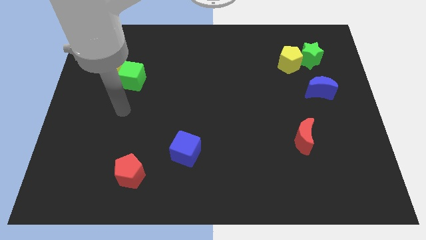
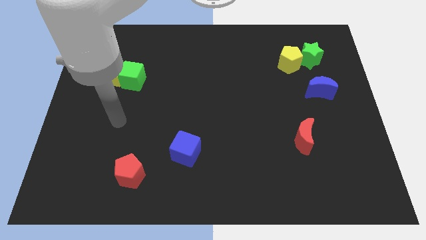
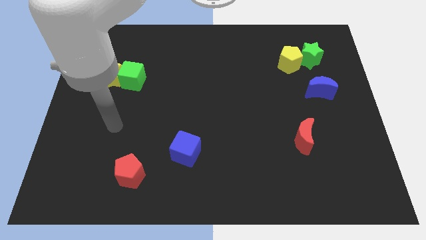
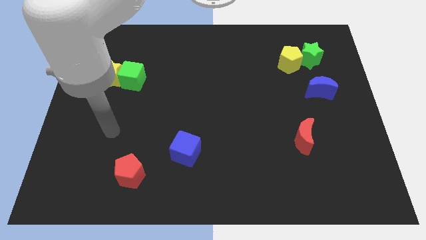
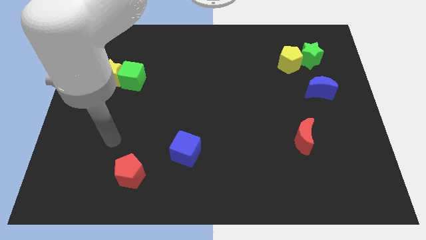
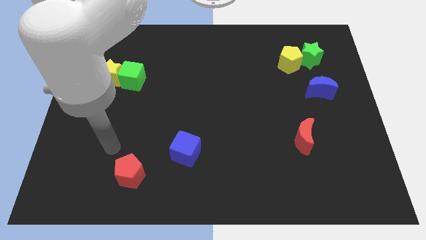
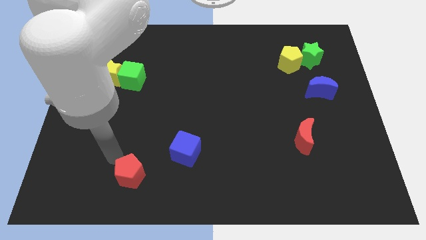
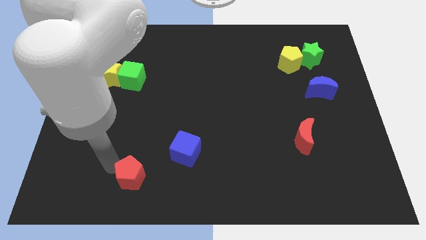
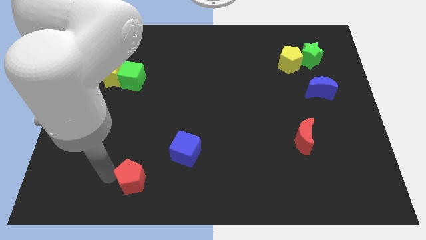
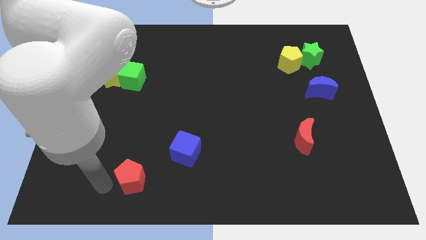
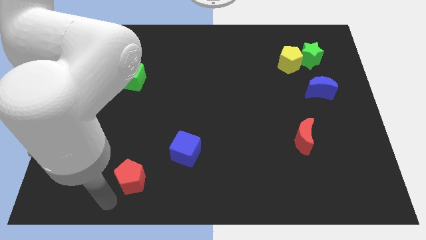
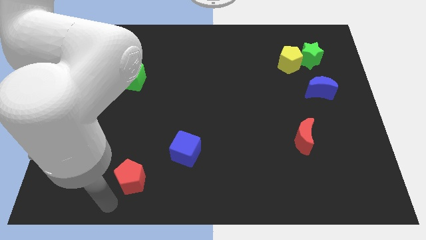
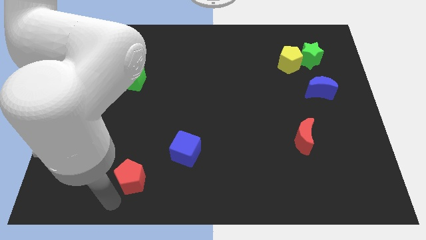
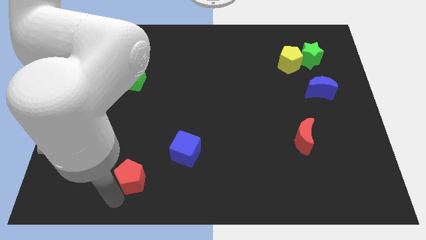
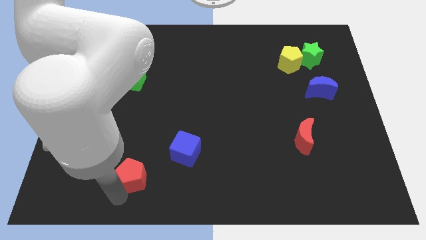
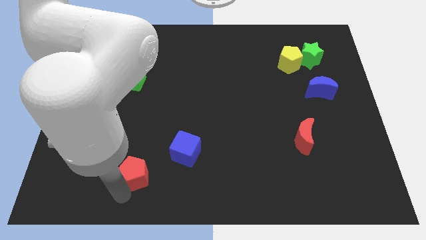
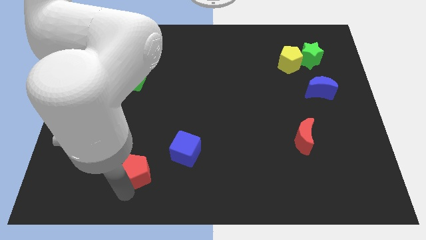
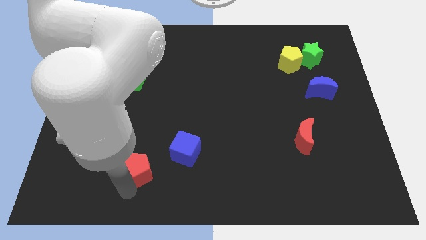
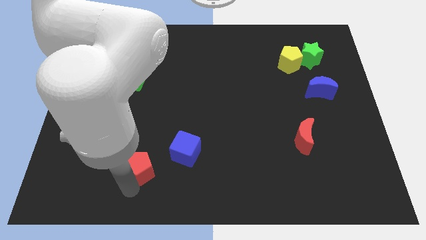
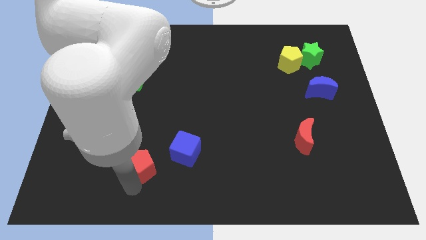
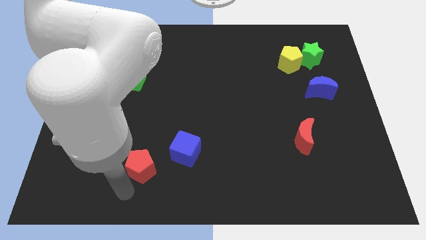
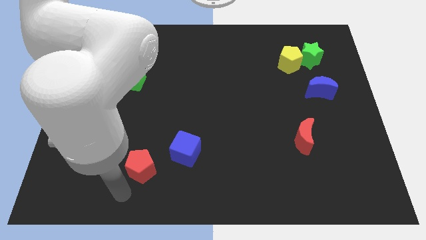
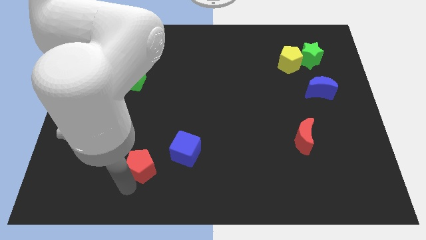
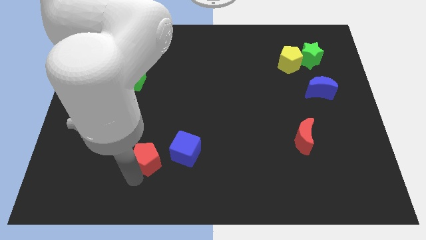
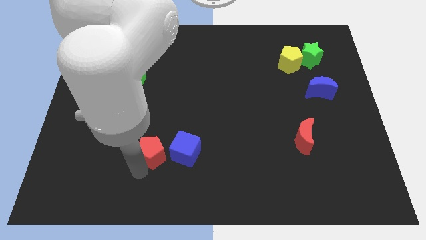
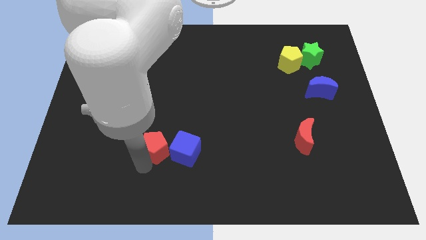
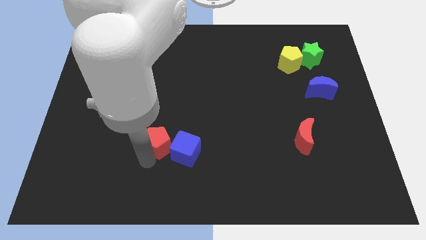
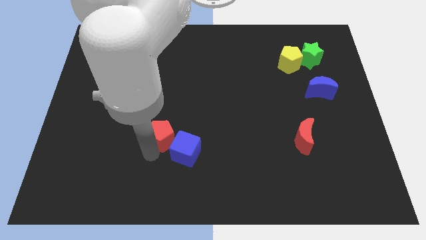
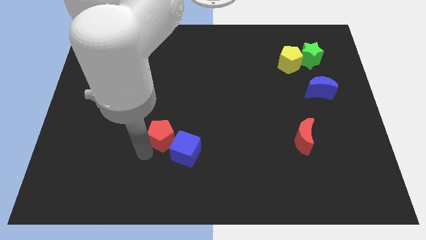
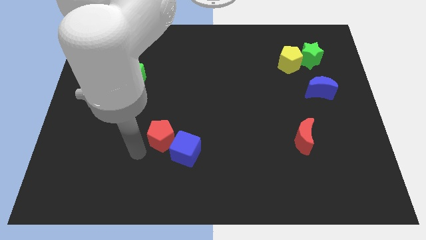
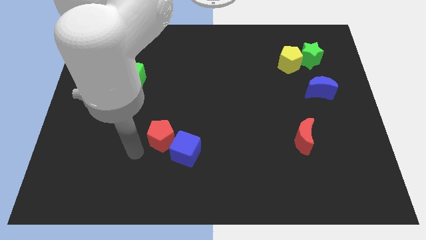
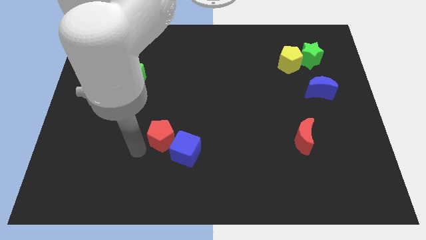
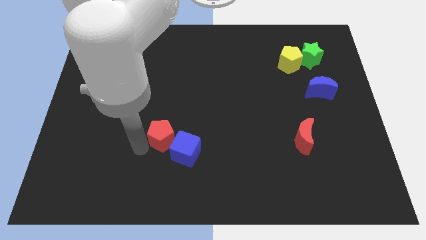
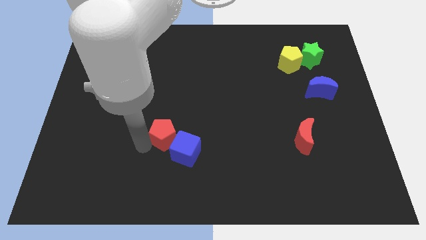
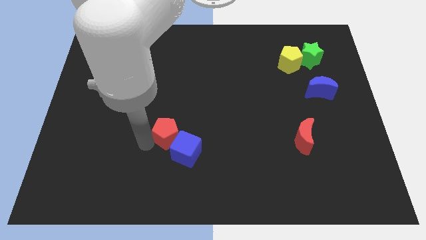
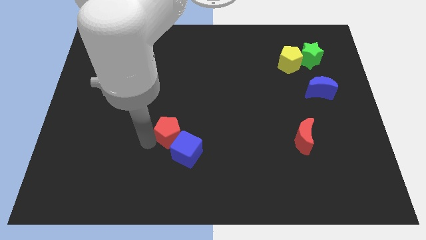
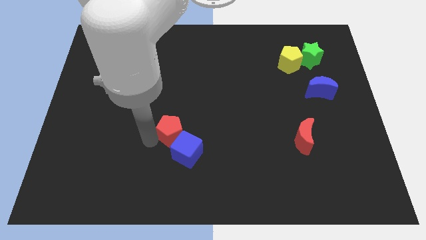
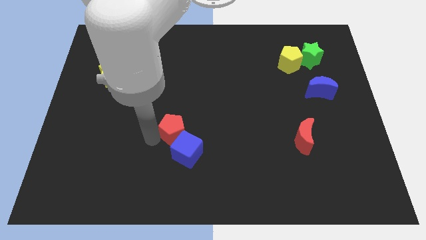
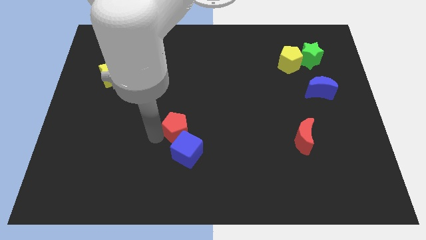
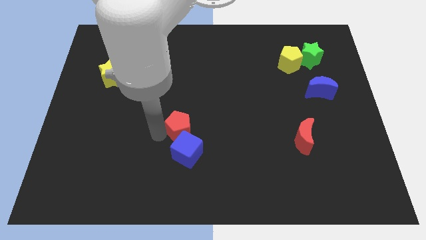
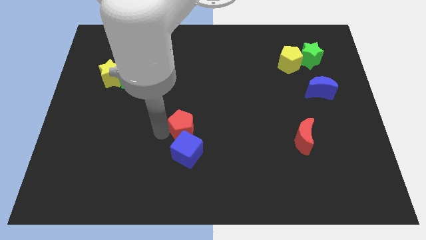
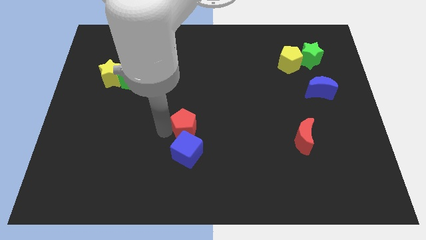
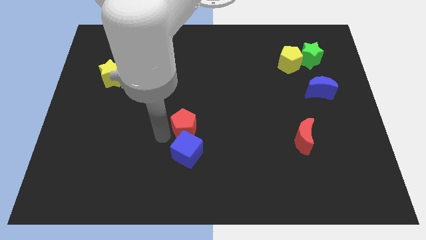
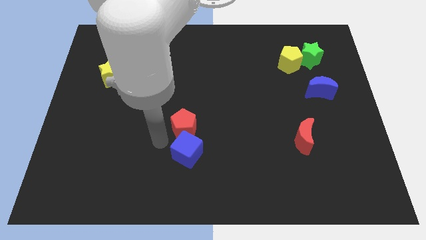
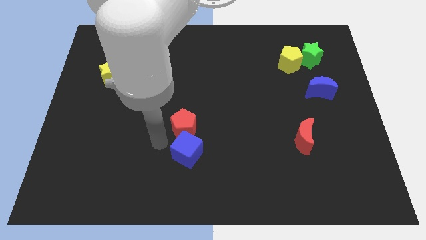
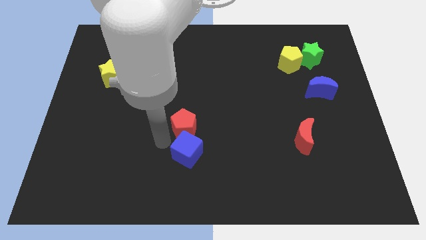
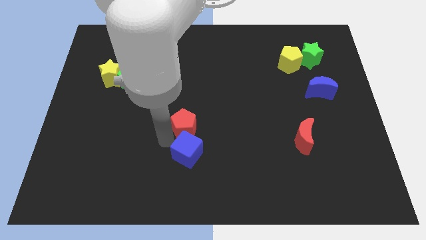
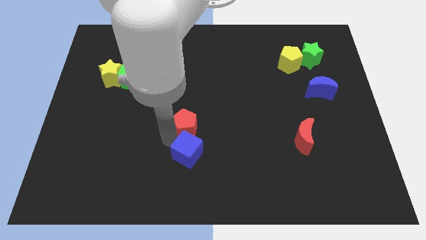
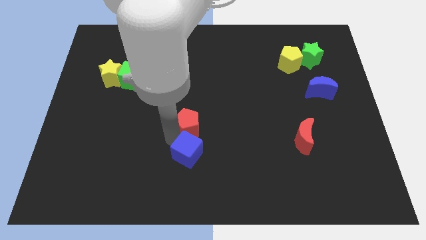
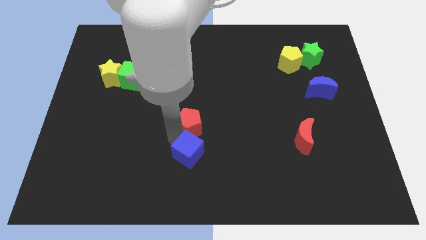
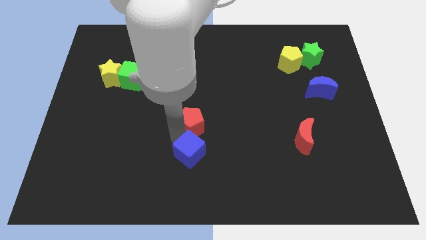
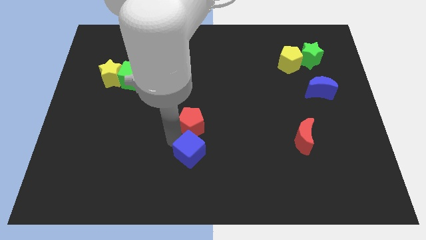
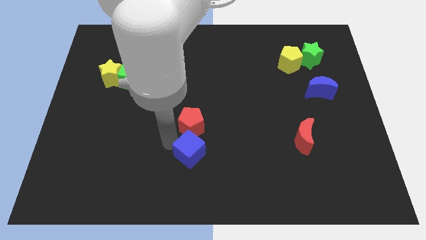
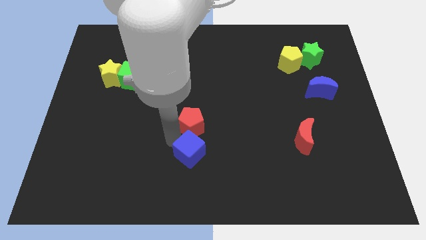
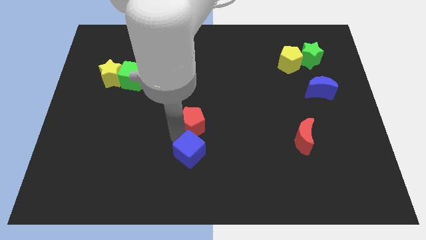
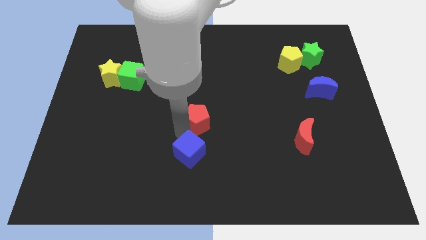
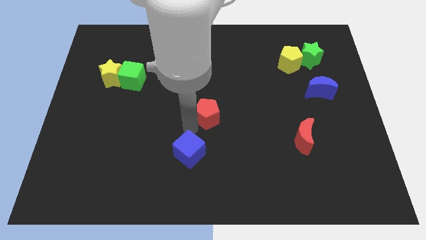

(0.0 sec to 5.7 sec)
push the red pentagon upwards and right diagonally

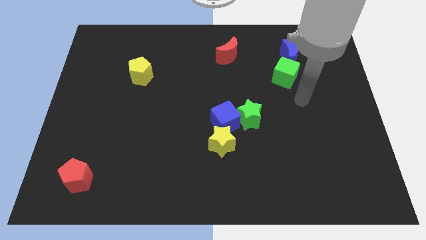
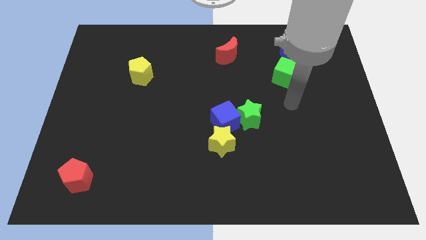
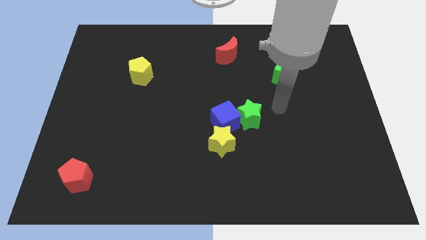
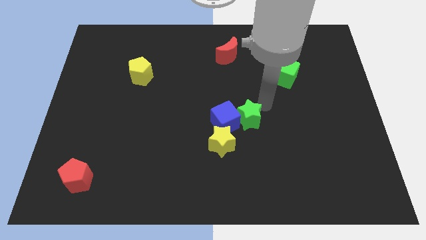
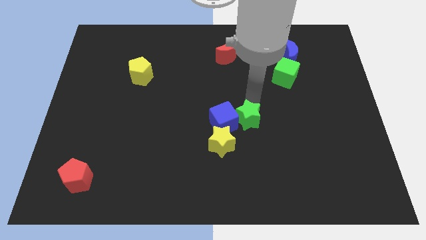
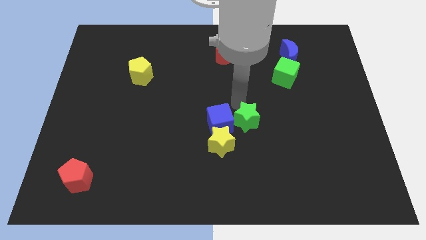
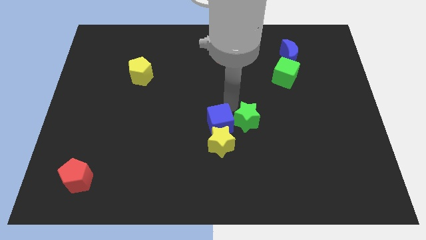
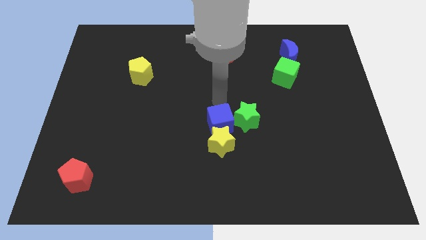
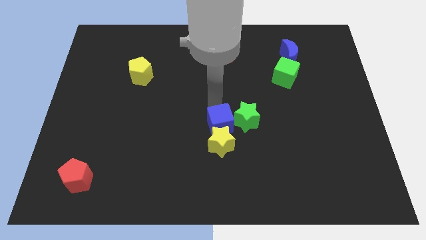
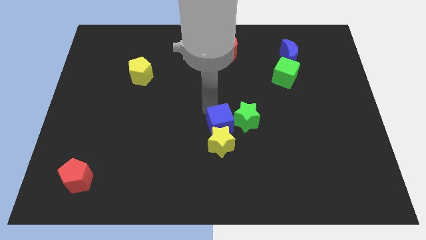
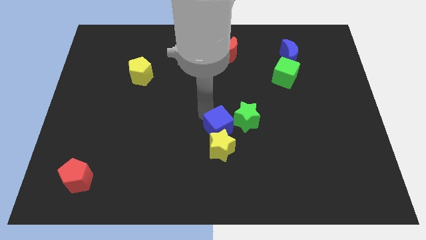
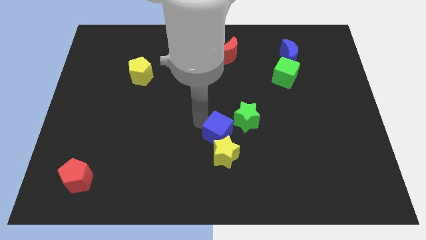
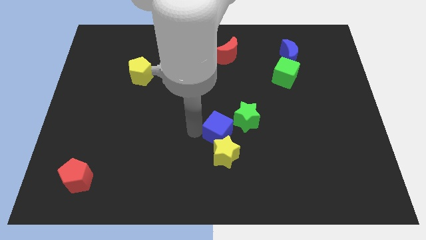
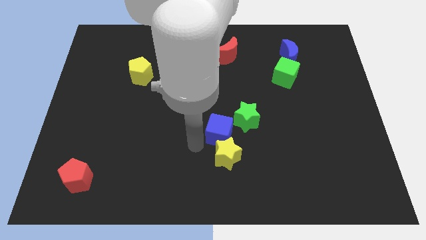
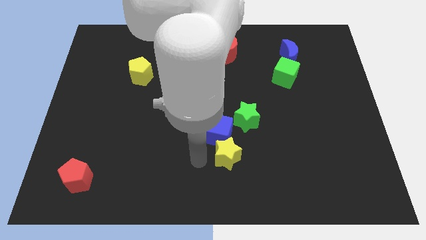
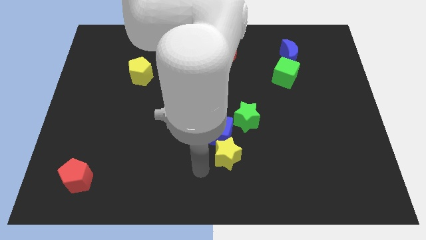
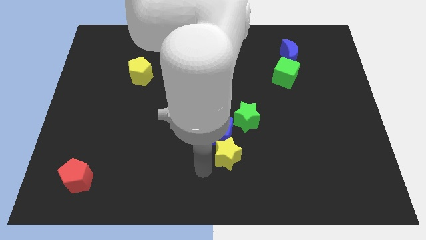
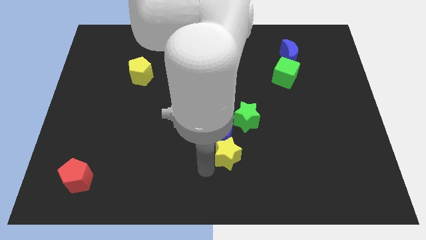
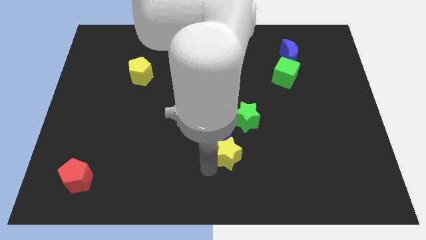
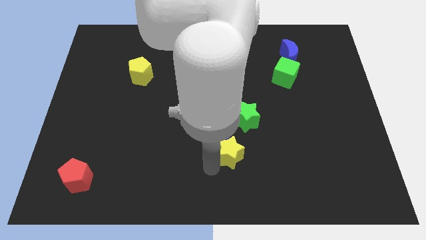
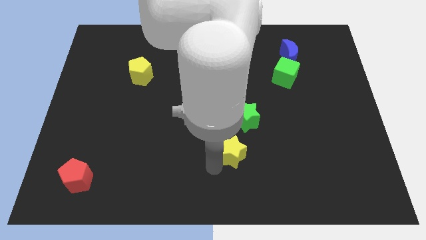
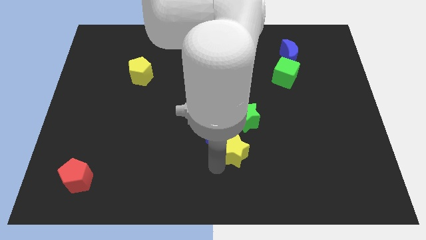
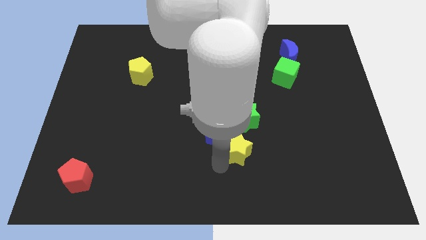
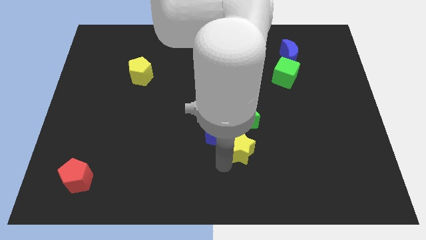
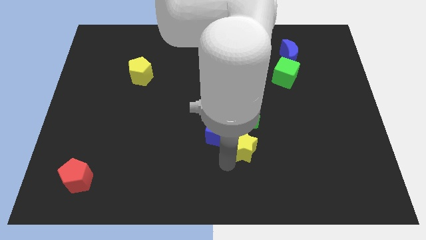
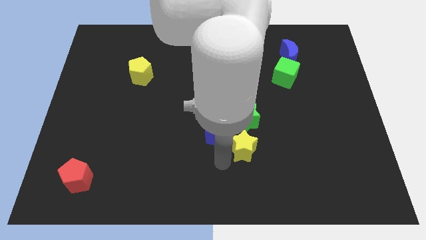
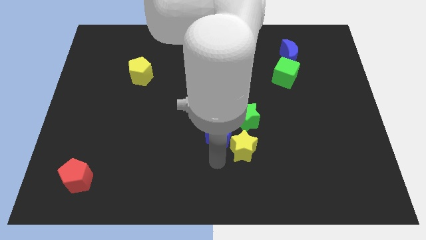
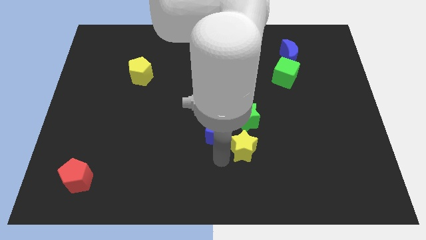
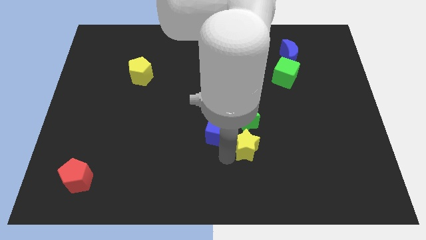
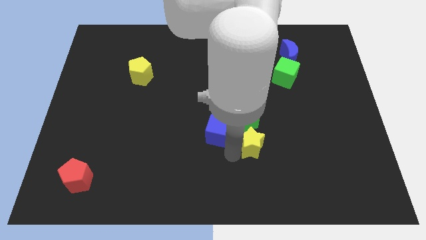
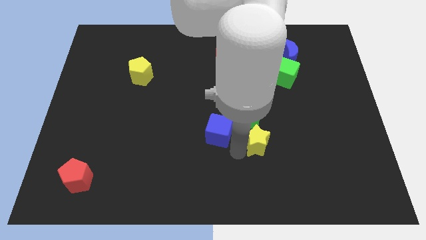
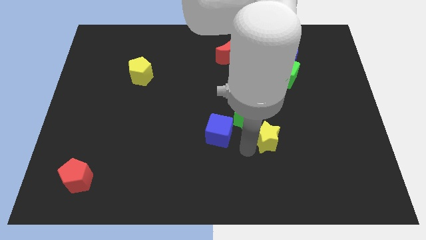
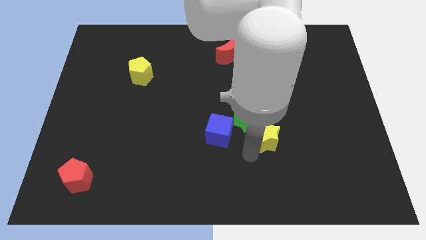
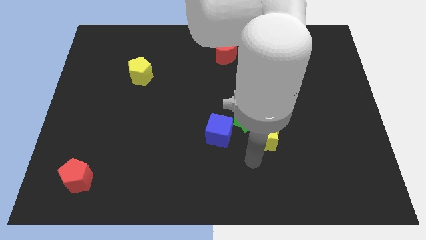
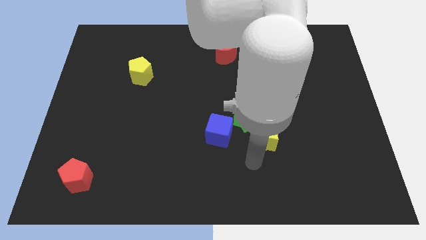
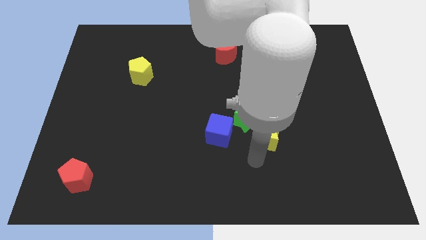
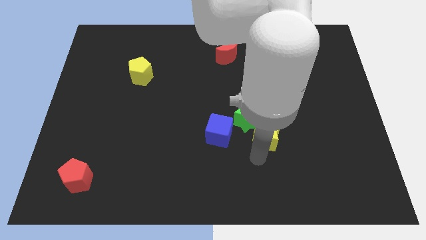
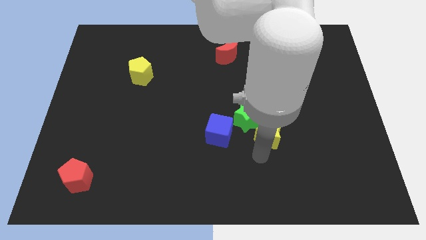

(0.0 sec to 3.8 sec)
move the yellow star slightly upwards and then to the right
